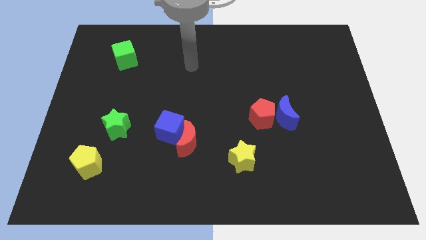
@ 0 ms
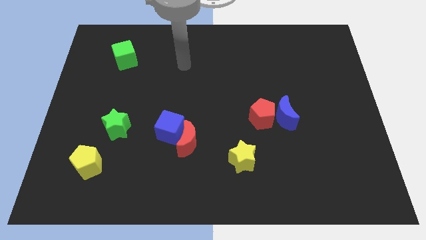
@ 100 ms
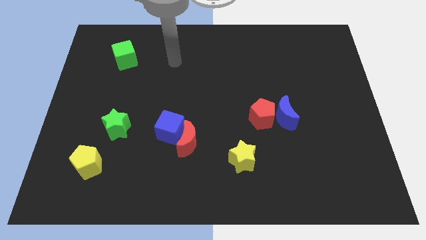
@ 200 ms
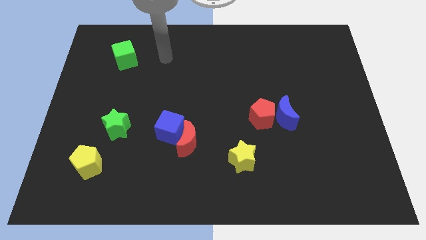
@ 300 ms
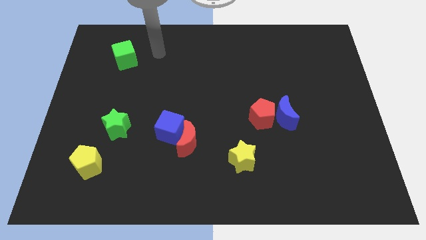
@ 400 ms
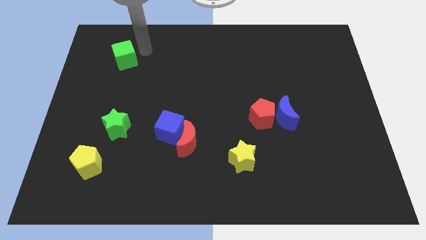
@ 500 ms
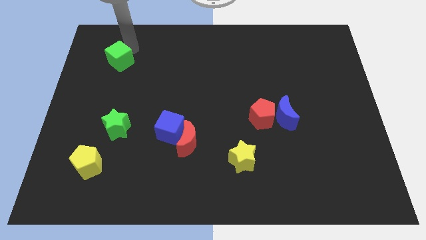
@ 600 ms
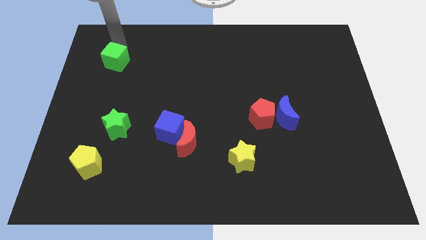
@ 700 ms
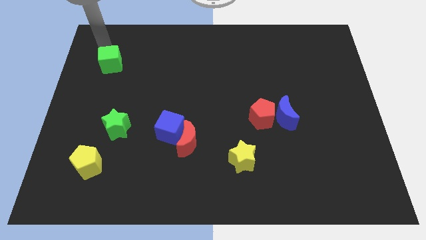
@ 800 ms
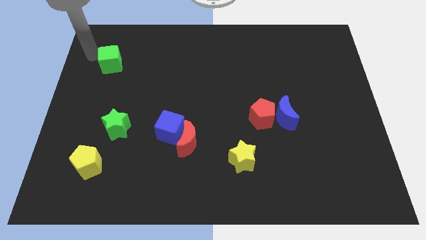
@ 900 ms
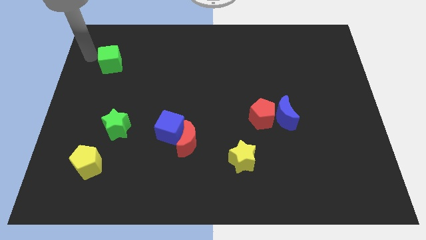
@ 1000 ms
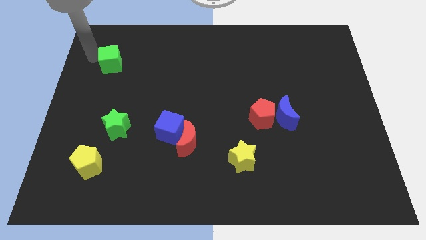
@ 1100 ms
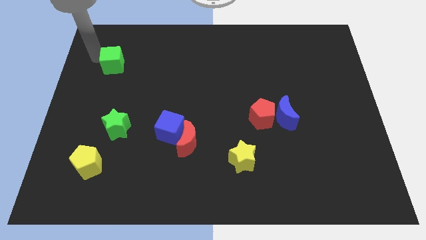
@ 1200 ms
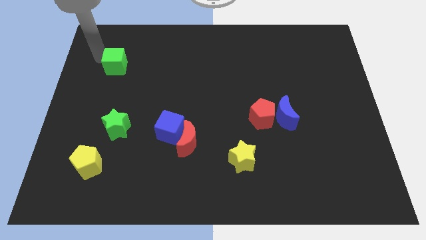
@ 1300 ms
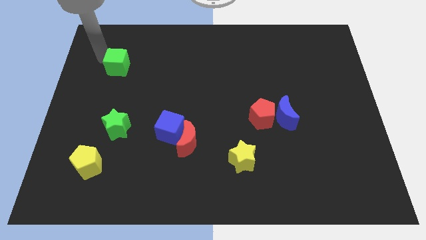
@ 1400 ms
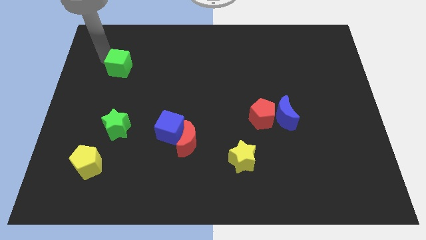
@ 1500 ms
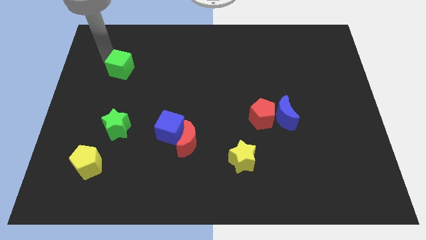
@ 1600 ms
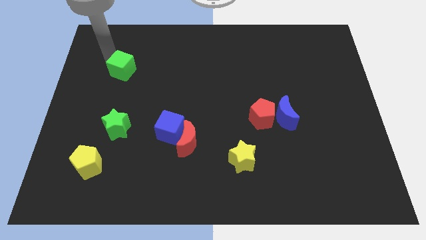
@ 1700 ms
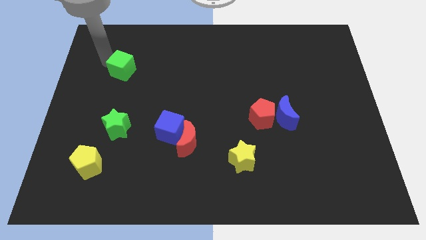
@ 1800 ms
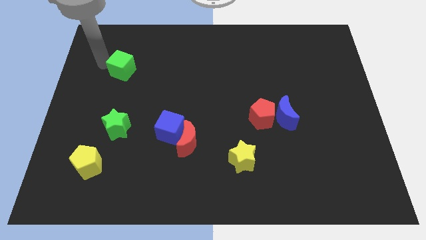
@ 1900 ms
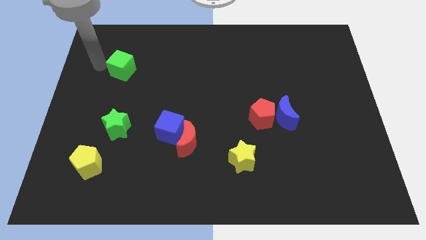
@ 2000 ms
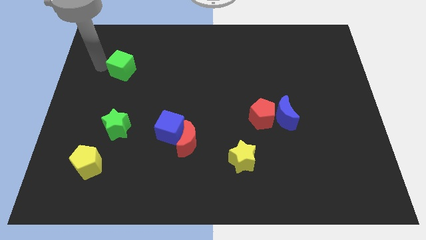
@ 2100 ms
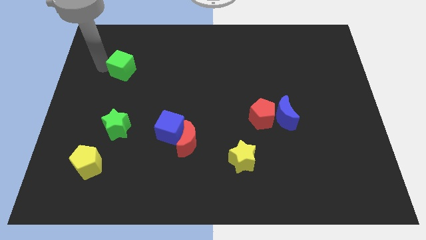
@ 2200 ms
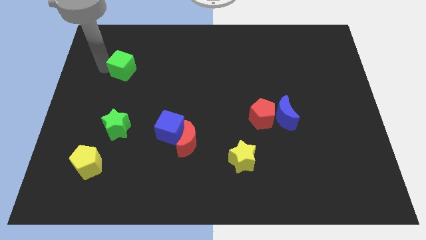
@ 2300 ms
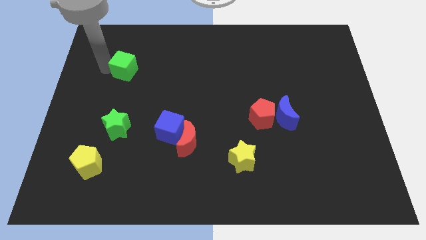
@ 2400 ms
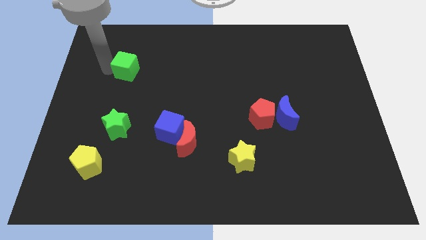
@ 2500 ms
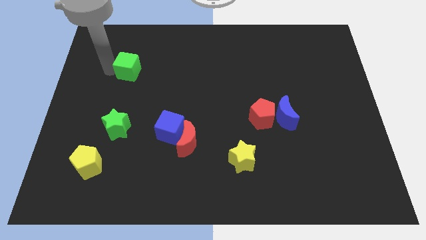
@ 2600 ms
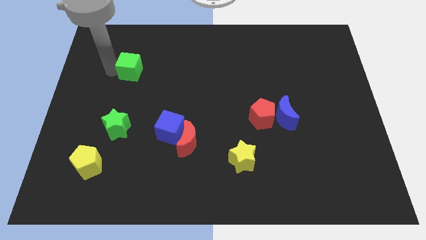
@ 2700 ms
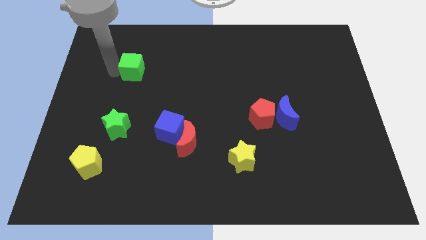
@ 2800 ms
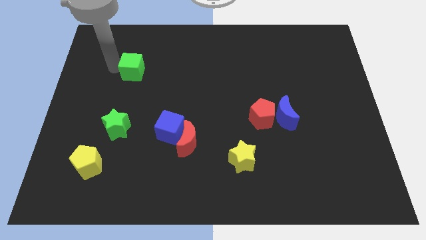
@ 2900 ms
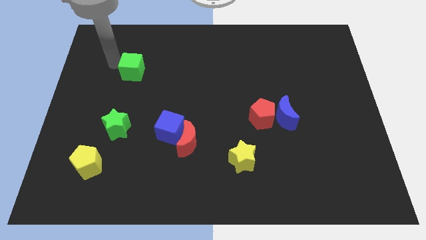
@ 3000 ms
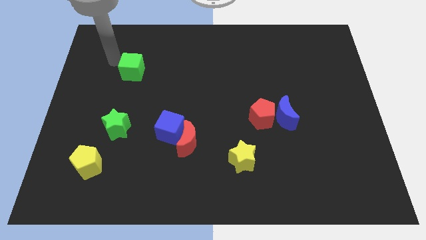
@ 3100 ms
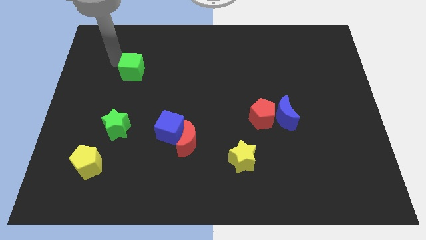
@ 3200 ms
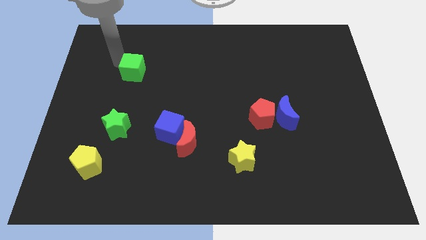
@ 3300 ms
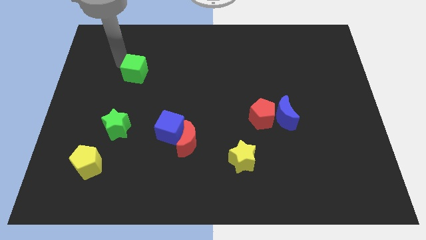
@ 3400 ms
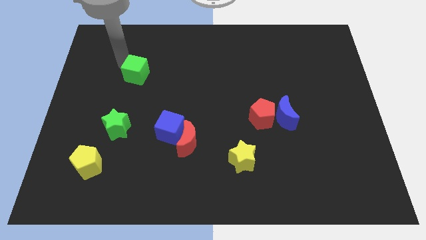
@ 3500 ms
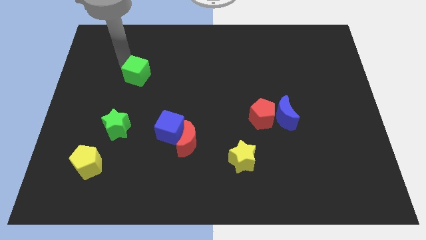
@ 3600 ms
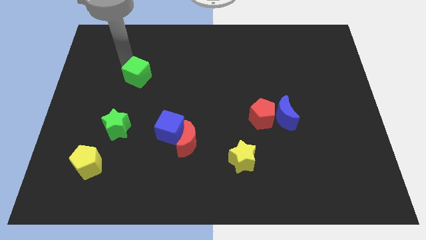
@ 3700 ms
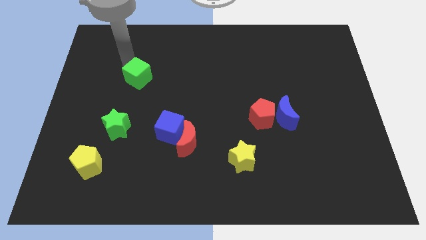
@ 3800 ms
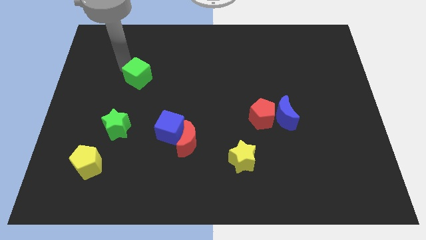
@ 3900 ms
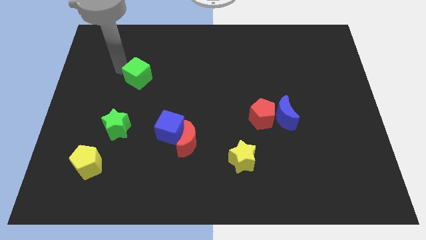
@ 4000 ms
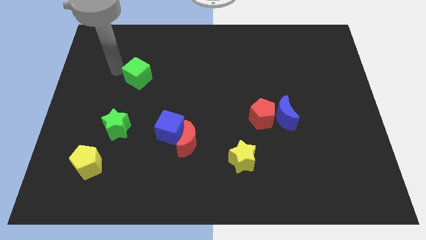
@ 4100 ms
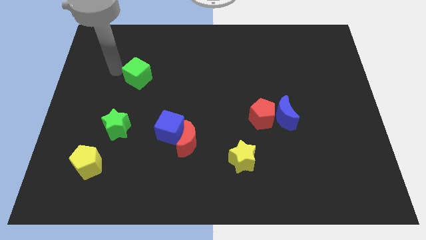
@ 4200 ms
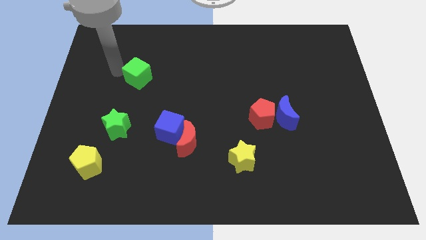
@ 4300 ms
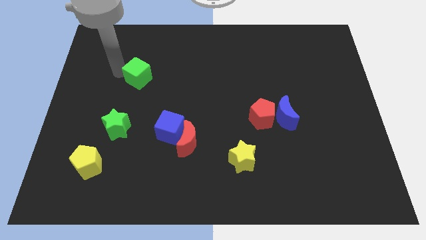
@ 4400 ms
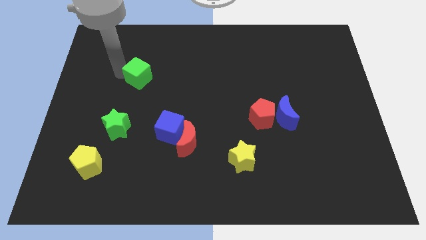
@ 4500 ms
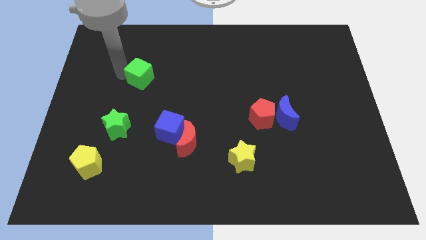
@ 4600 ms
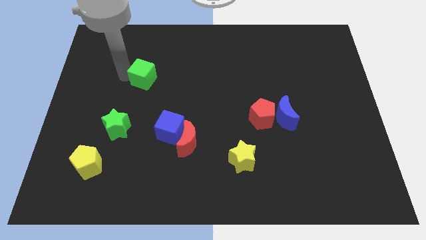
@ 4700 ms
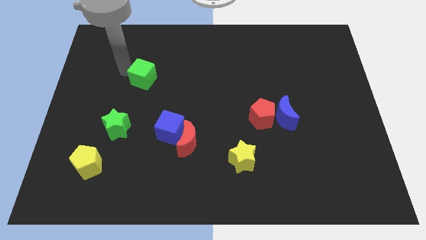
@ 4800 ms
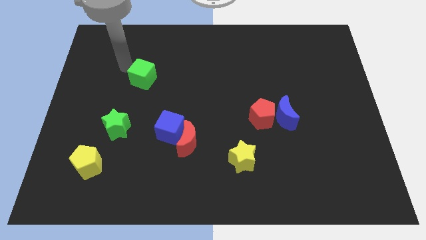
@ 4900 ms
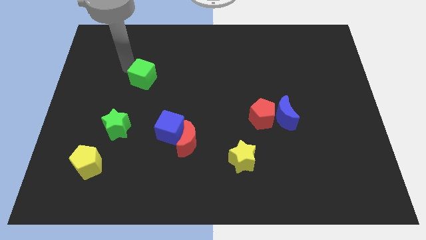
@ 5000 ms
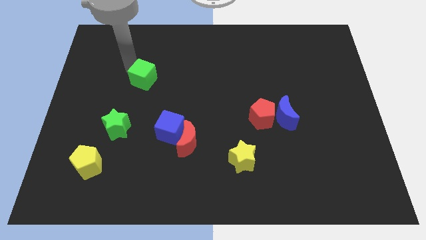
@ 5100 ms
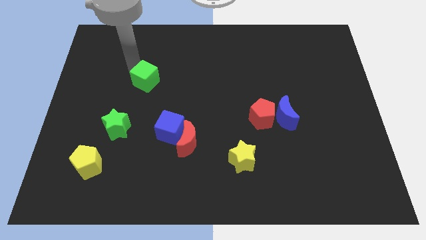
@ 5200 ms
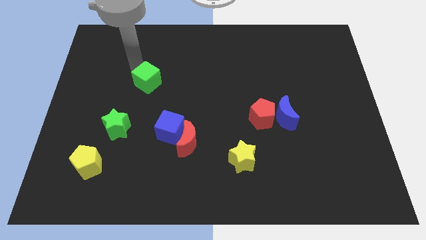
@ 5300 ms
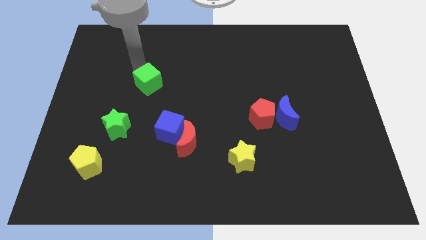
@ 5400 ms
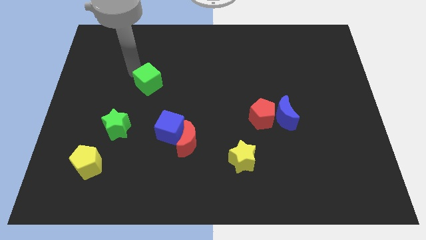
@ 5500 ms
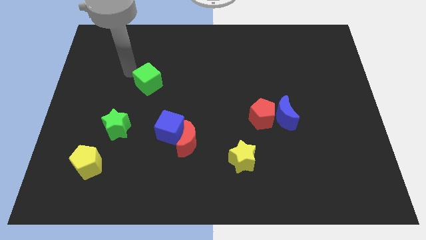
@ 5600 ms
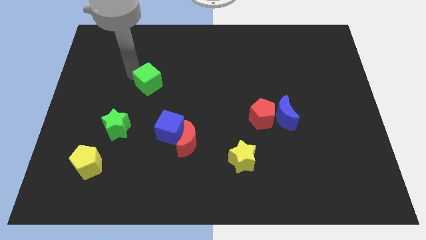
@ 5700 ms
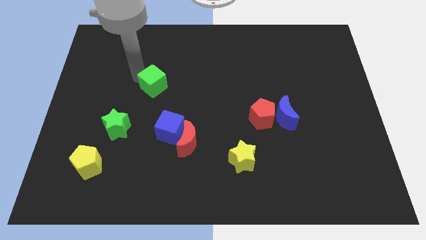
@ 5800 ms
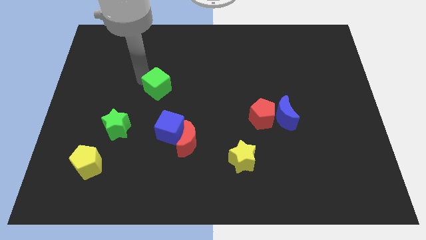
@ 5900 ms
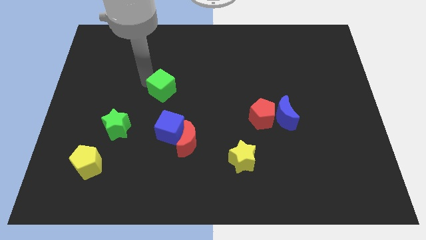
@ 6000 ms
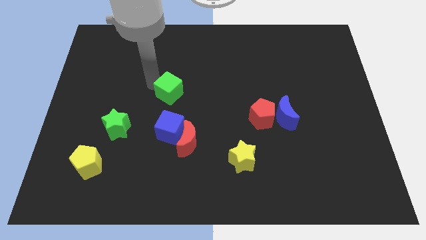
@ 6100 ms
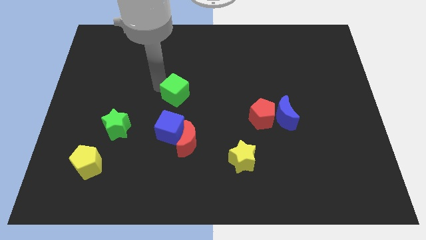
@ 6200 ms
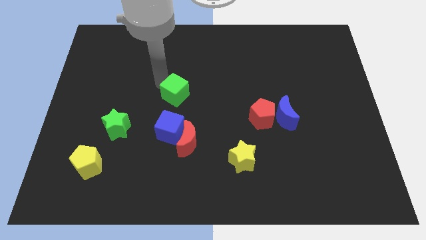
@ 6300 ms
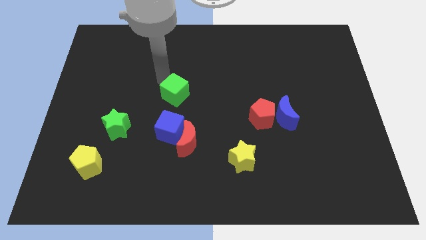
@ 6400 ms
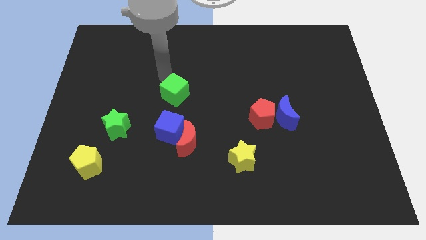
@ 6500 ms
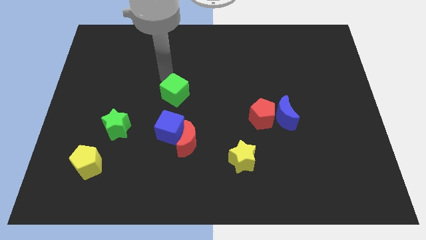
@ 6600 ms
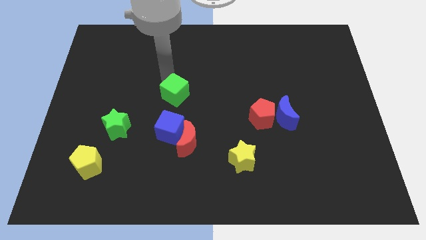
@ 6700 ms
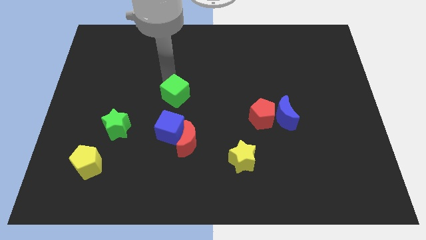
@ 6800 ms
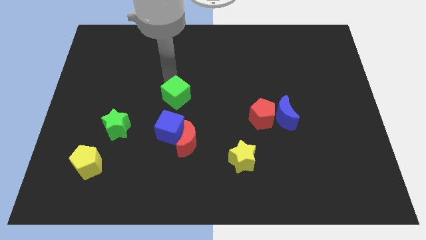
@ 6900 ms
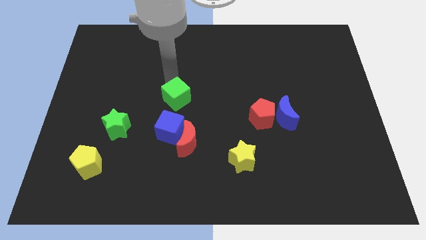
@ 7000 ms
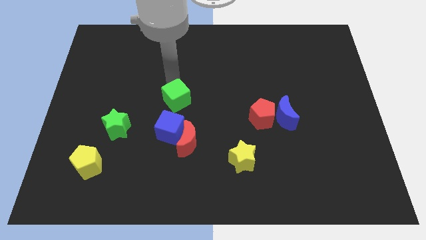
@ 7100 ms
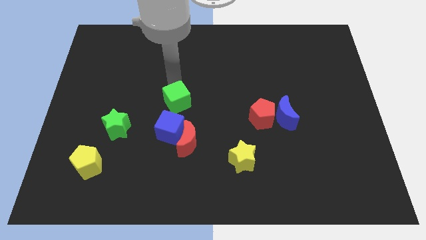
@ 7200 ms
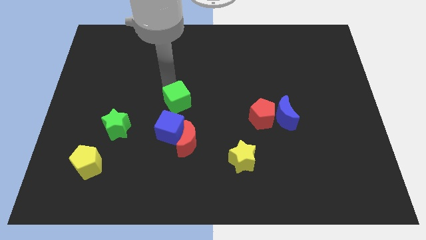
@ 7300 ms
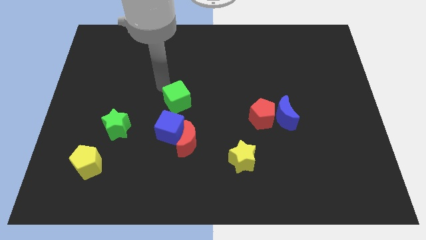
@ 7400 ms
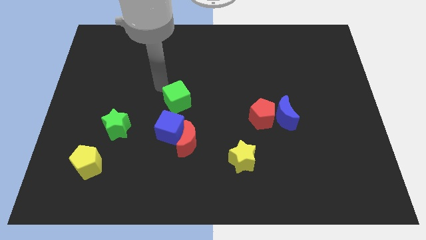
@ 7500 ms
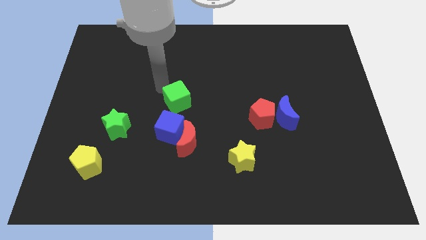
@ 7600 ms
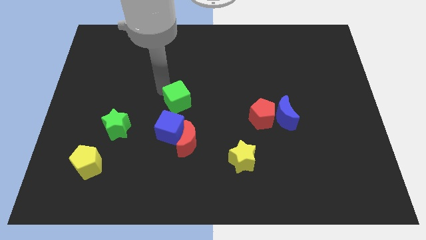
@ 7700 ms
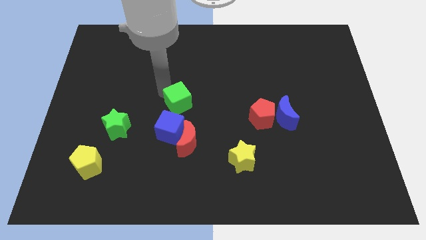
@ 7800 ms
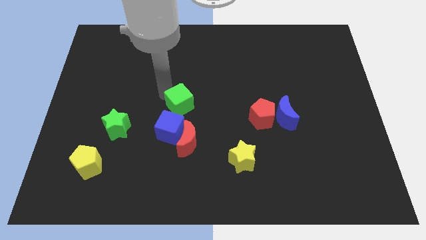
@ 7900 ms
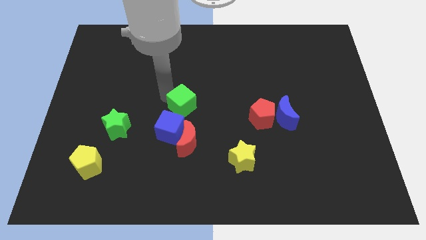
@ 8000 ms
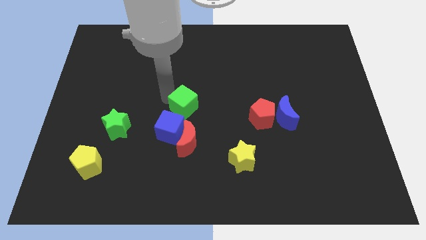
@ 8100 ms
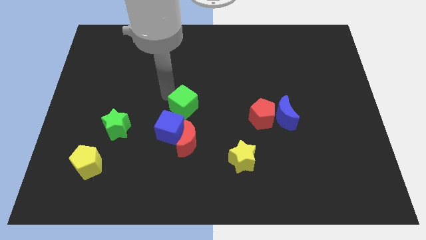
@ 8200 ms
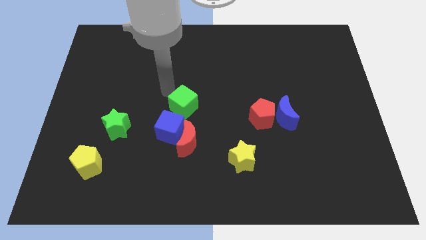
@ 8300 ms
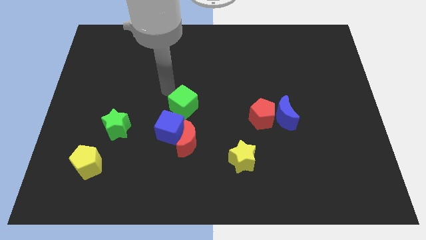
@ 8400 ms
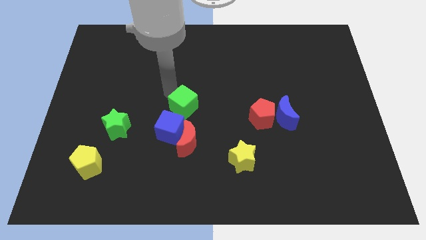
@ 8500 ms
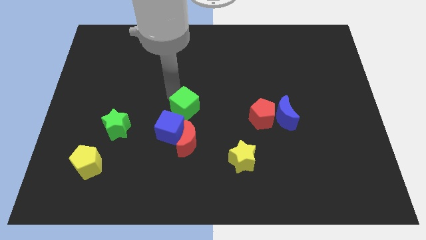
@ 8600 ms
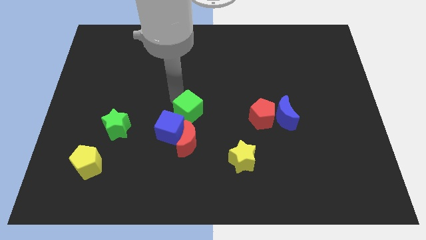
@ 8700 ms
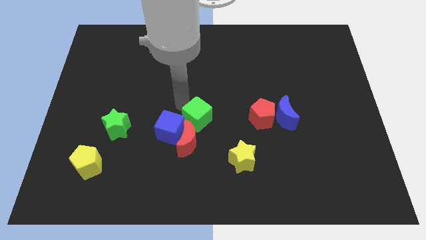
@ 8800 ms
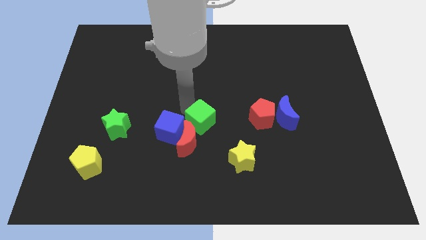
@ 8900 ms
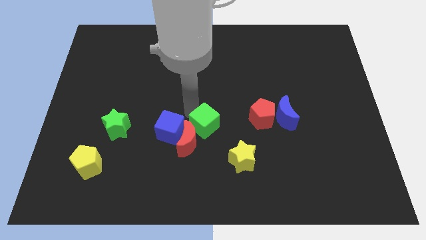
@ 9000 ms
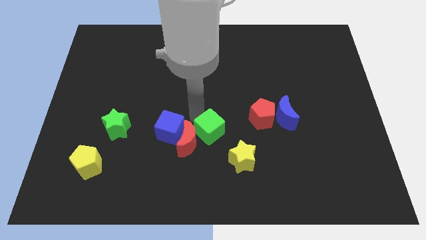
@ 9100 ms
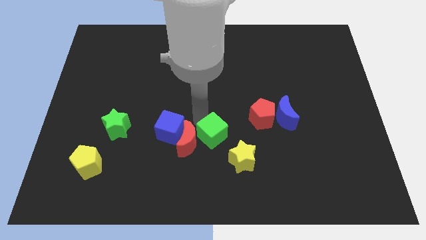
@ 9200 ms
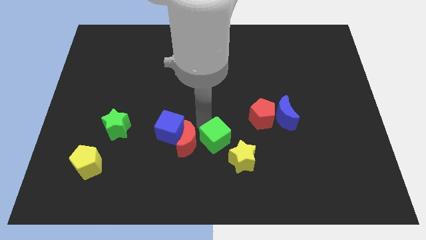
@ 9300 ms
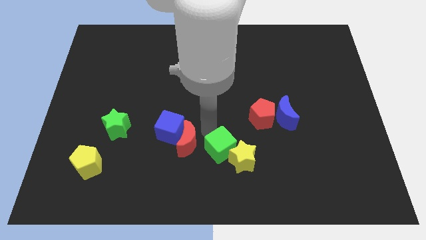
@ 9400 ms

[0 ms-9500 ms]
put the green cube to the yellow star
